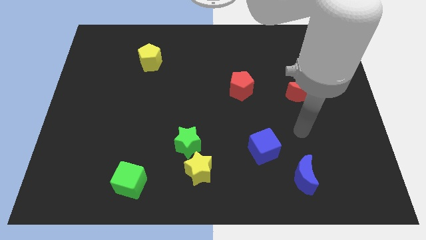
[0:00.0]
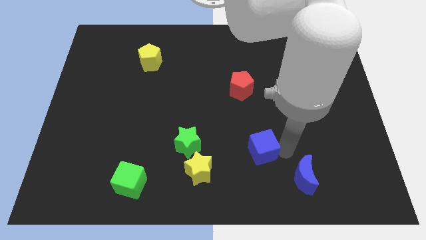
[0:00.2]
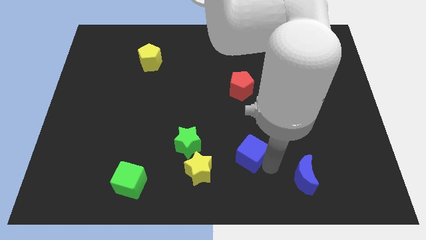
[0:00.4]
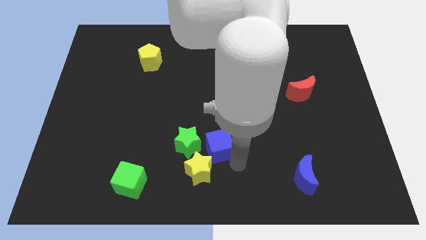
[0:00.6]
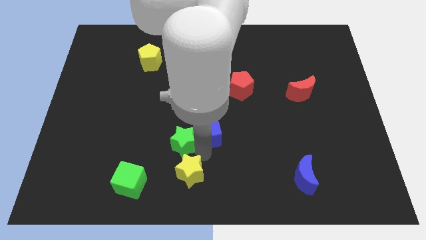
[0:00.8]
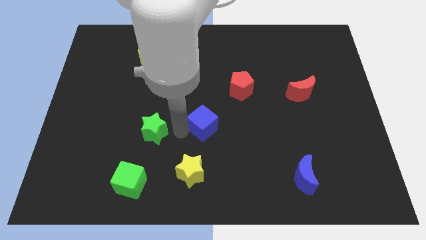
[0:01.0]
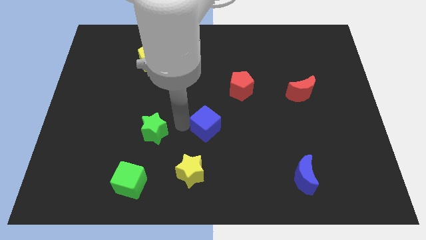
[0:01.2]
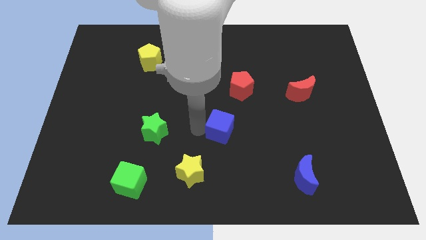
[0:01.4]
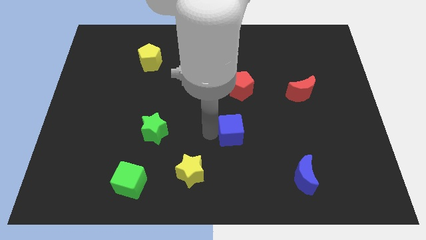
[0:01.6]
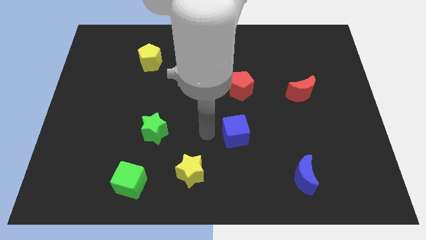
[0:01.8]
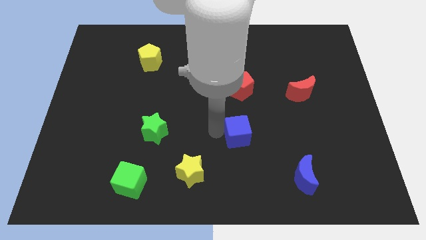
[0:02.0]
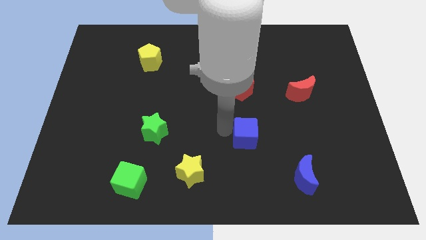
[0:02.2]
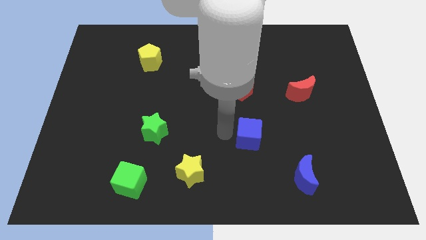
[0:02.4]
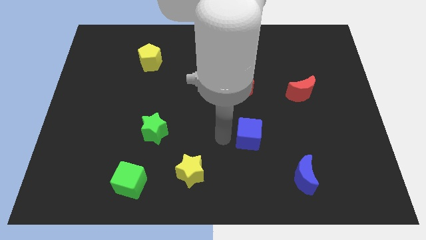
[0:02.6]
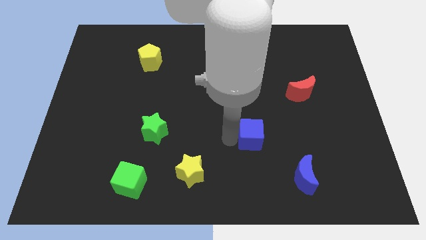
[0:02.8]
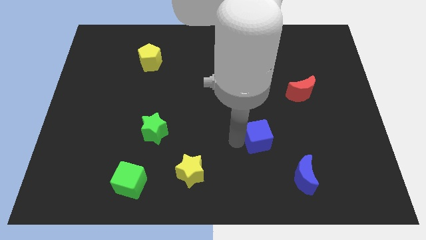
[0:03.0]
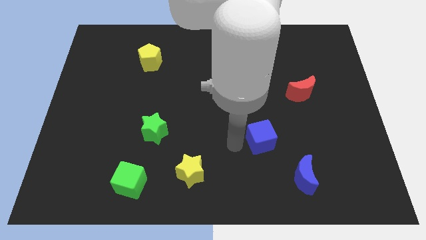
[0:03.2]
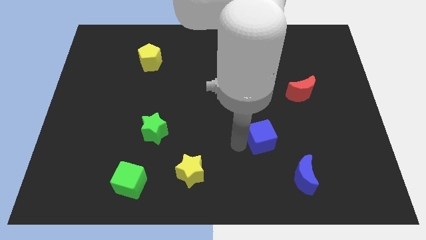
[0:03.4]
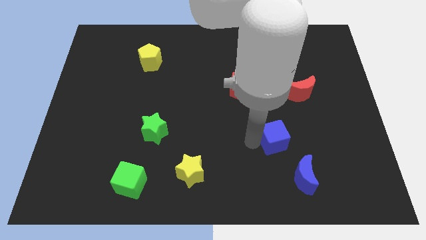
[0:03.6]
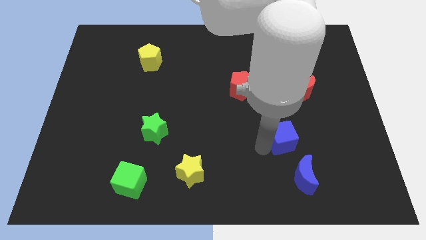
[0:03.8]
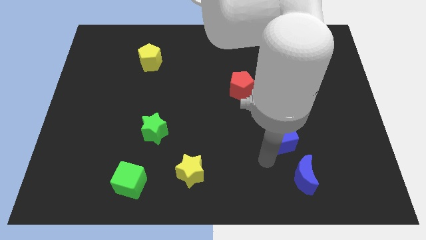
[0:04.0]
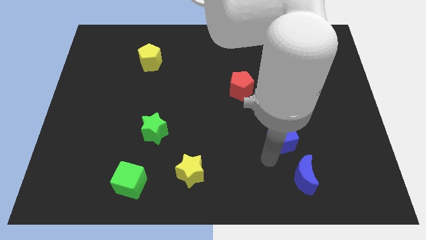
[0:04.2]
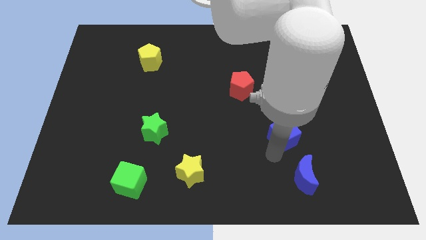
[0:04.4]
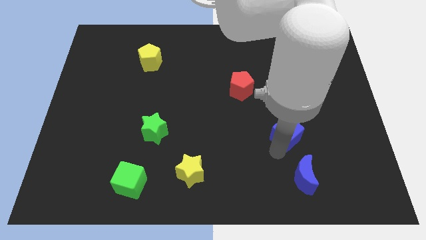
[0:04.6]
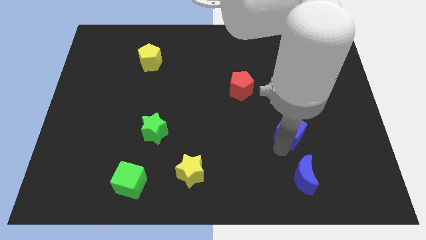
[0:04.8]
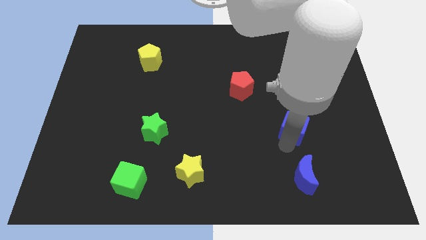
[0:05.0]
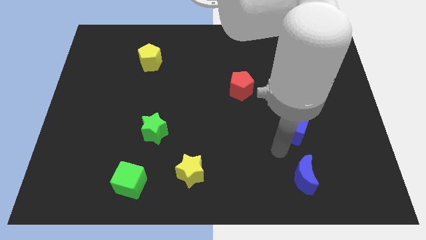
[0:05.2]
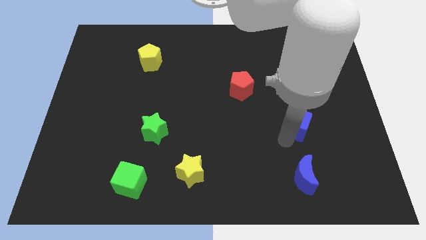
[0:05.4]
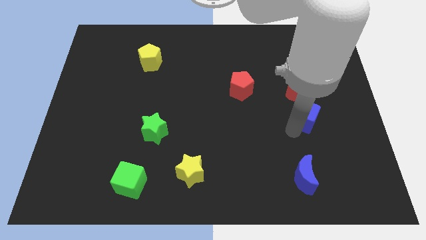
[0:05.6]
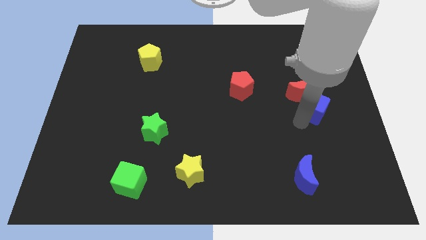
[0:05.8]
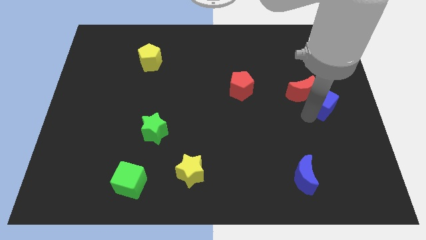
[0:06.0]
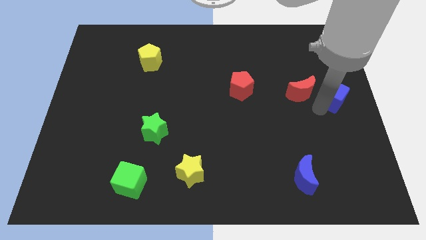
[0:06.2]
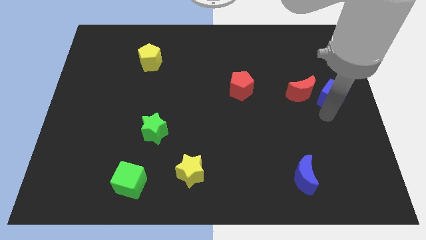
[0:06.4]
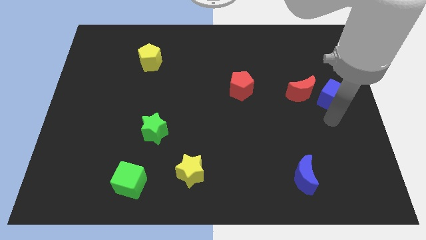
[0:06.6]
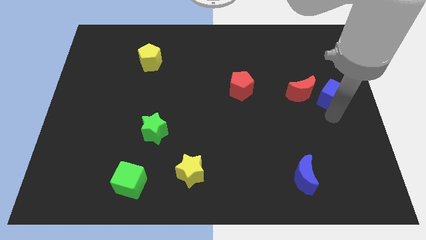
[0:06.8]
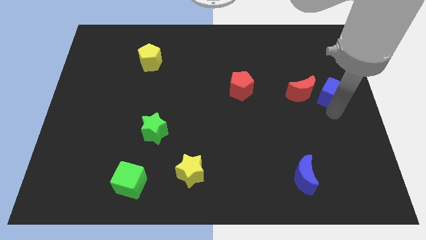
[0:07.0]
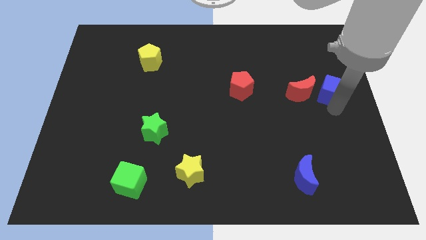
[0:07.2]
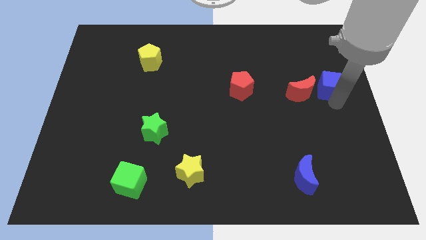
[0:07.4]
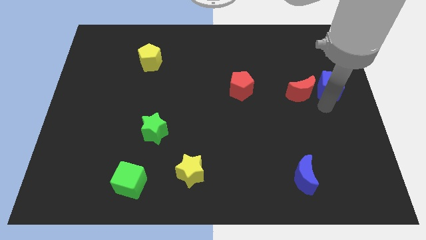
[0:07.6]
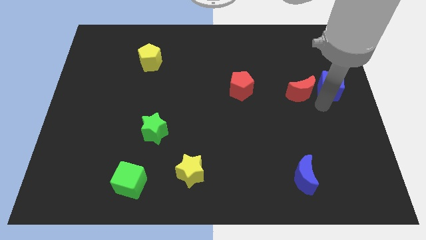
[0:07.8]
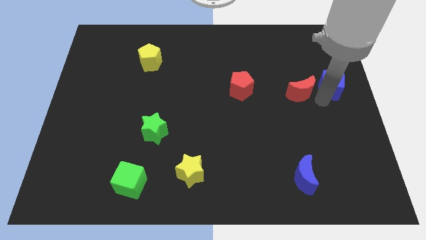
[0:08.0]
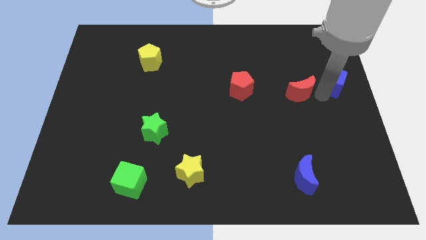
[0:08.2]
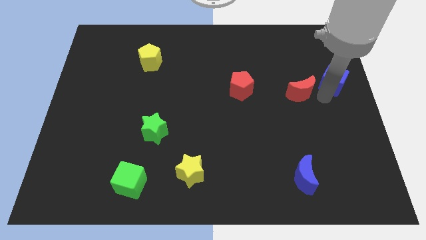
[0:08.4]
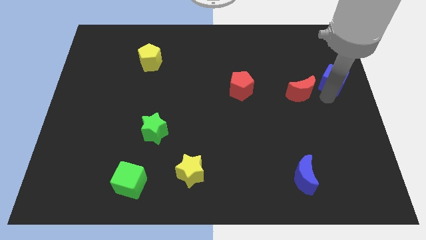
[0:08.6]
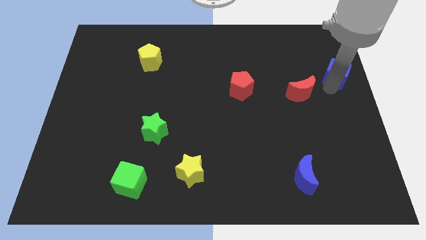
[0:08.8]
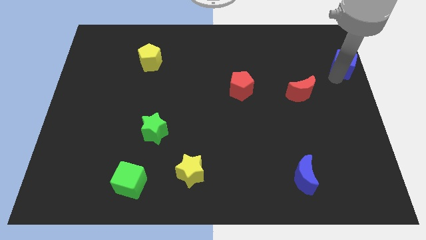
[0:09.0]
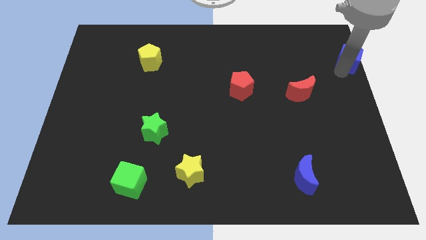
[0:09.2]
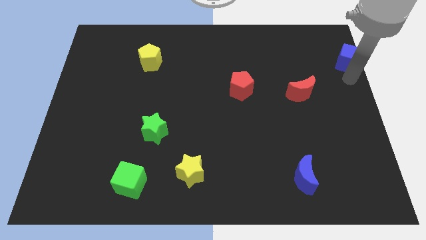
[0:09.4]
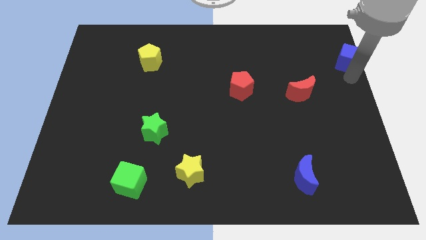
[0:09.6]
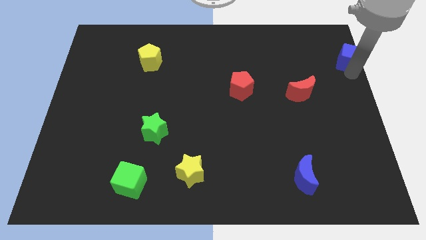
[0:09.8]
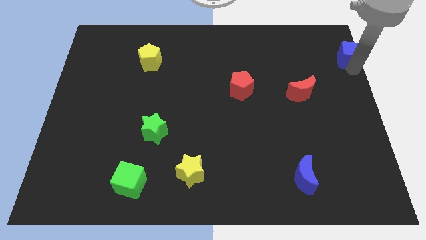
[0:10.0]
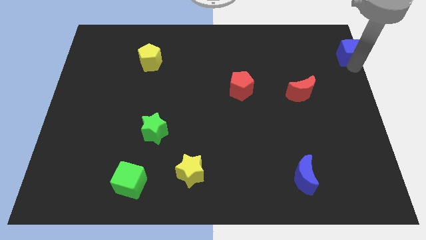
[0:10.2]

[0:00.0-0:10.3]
put the blue cube to the top right
